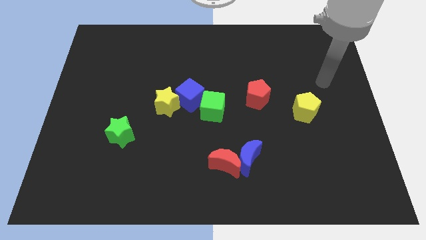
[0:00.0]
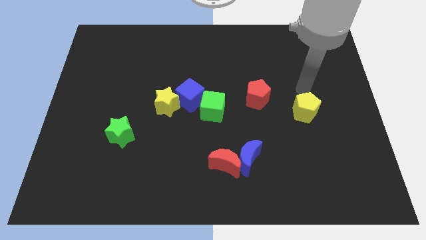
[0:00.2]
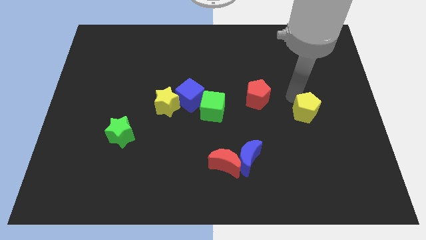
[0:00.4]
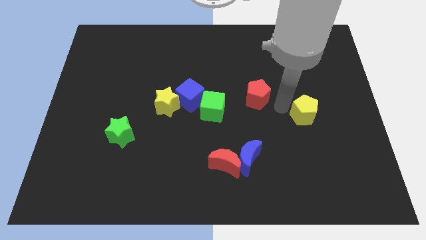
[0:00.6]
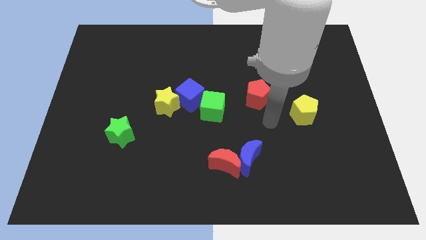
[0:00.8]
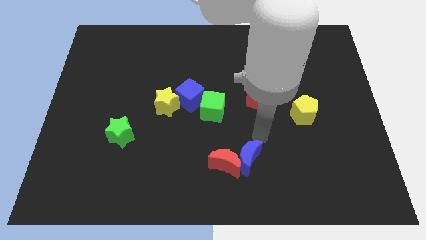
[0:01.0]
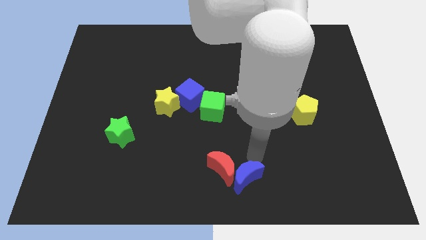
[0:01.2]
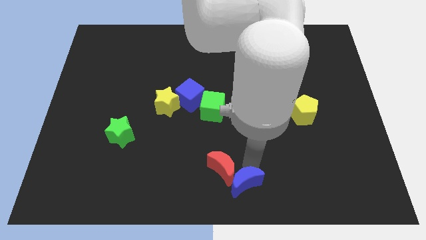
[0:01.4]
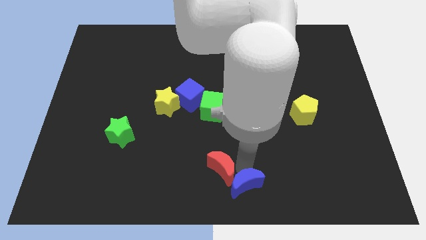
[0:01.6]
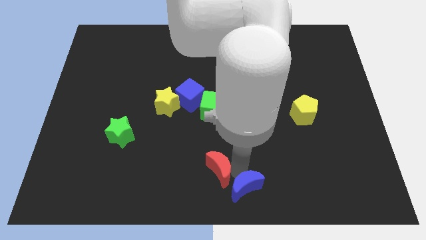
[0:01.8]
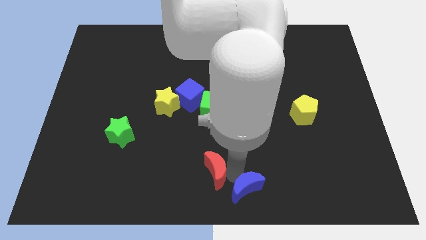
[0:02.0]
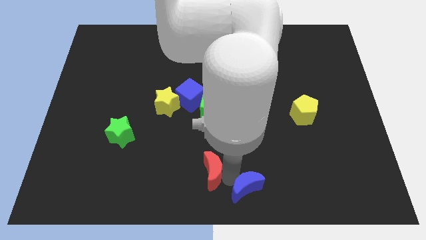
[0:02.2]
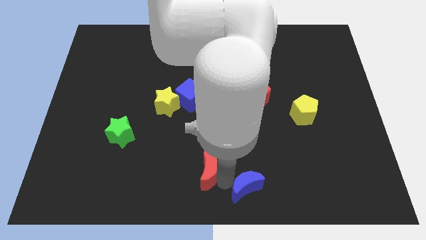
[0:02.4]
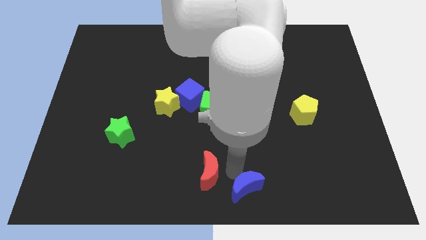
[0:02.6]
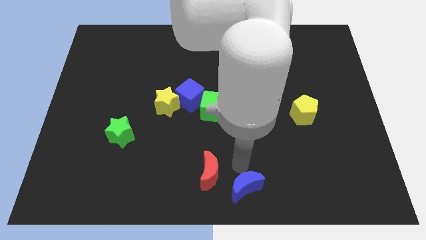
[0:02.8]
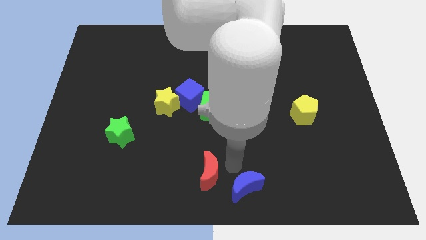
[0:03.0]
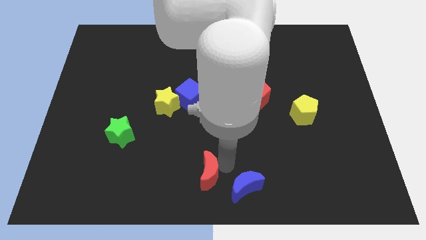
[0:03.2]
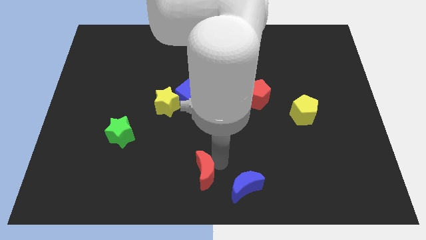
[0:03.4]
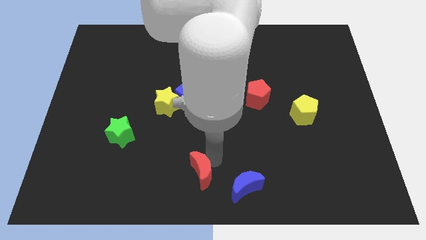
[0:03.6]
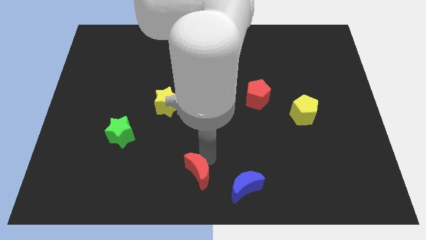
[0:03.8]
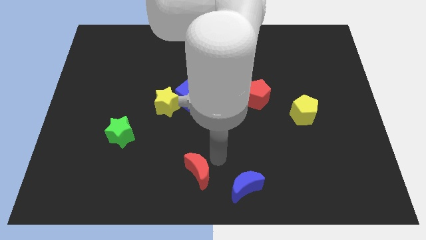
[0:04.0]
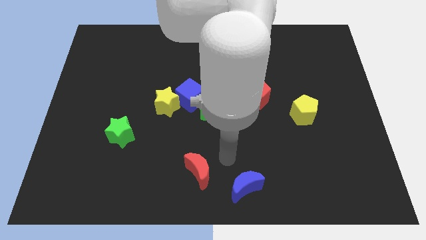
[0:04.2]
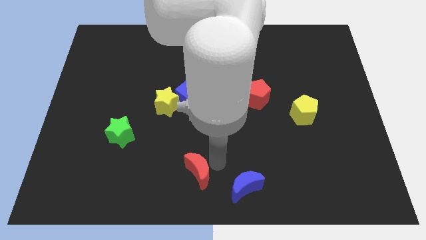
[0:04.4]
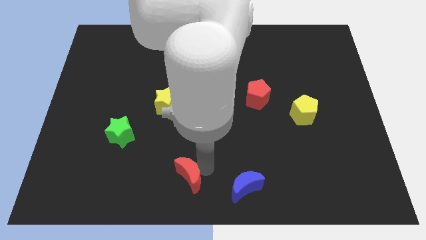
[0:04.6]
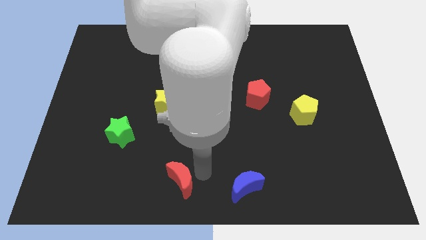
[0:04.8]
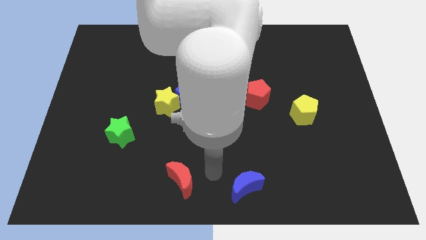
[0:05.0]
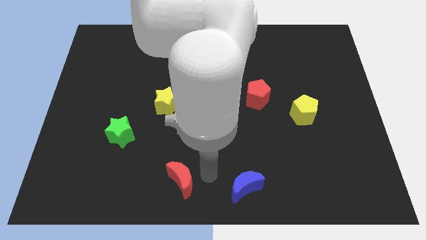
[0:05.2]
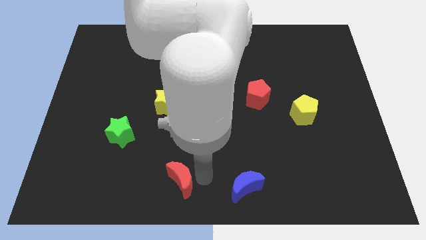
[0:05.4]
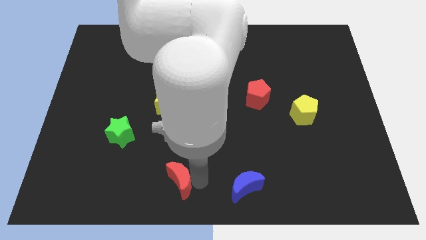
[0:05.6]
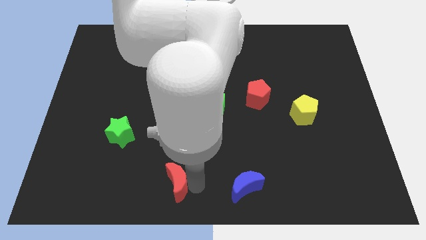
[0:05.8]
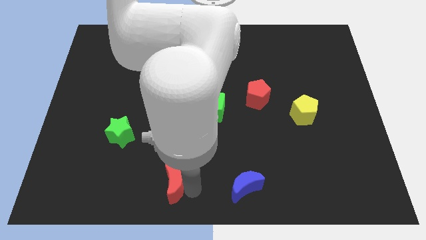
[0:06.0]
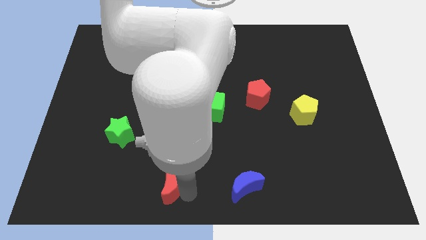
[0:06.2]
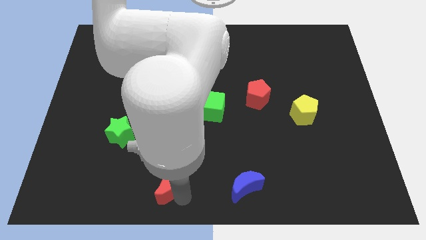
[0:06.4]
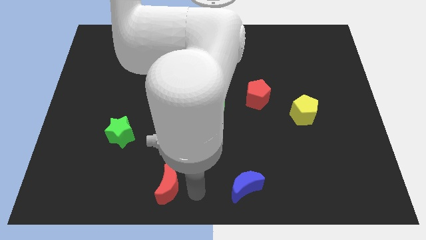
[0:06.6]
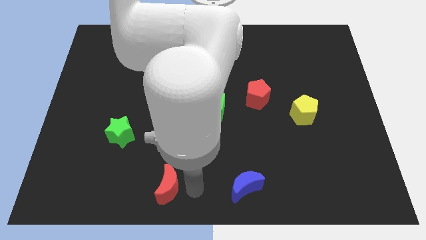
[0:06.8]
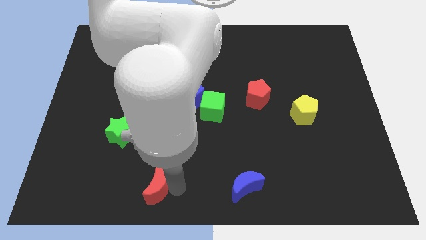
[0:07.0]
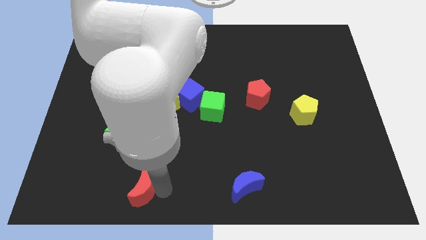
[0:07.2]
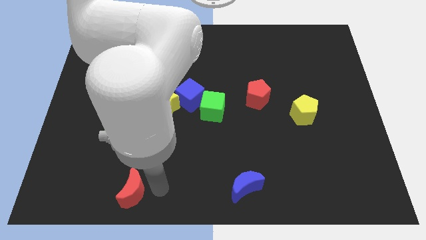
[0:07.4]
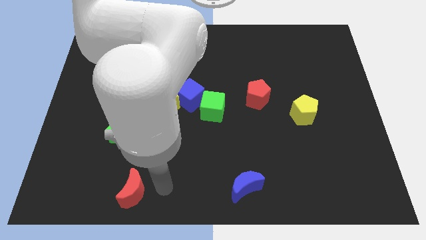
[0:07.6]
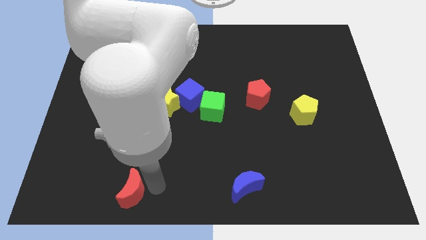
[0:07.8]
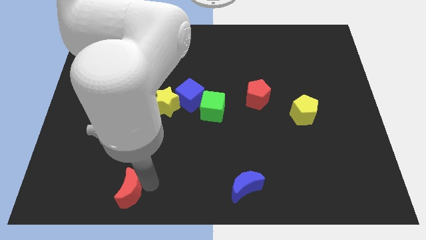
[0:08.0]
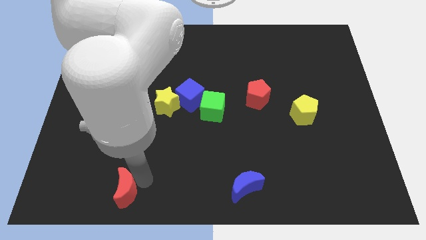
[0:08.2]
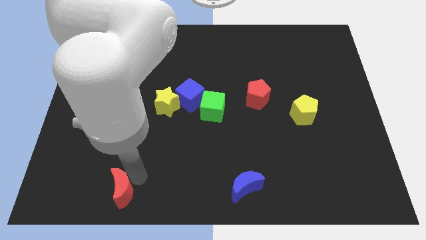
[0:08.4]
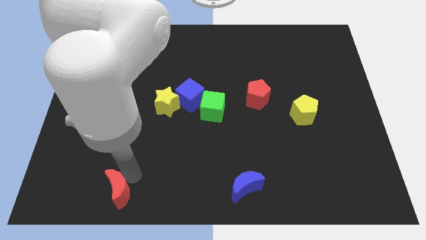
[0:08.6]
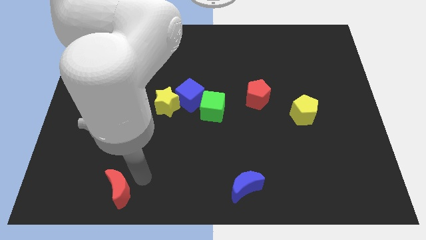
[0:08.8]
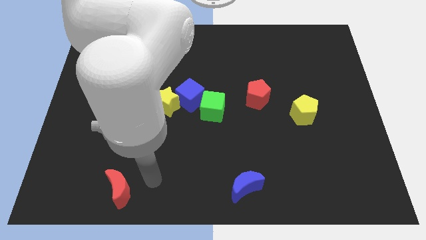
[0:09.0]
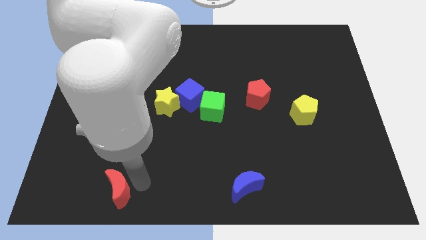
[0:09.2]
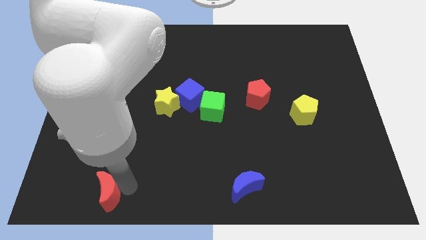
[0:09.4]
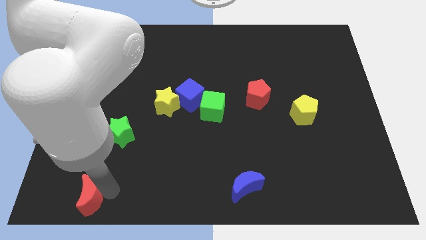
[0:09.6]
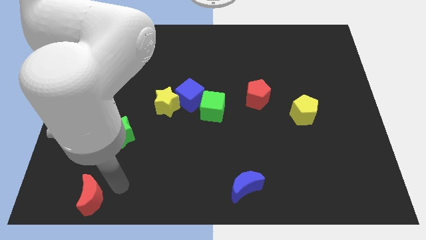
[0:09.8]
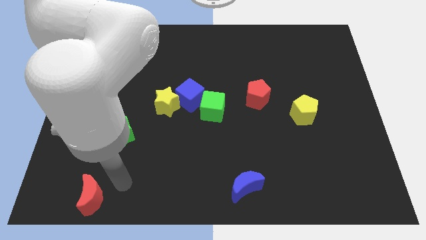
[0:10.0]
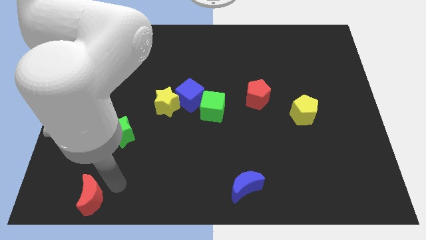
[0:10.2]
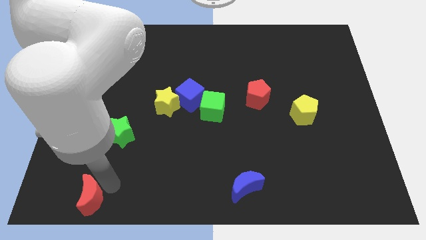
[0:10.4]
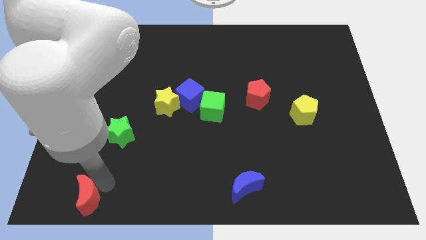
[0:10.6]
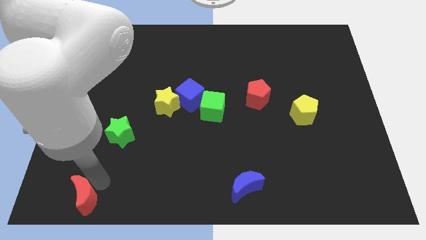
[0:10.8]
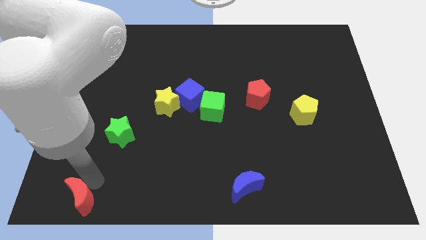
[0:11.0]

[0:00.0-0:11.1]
put the red moon to the lower left corner

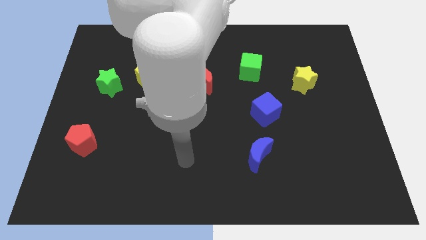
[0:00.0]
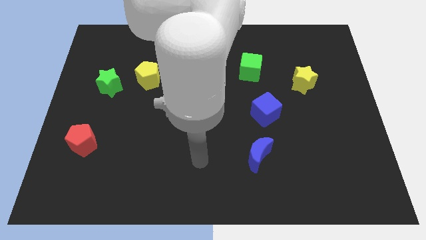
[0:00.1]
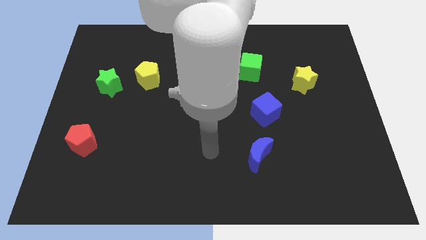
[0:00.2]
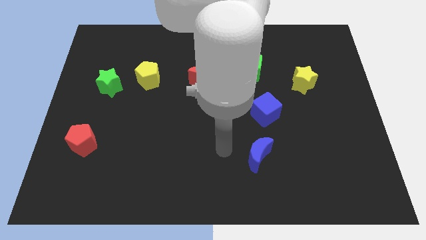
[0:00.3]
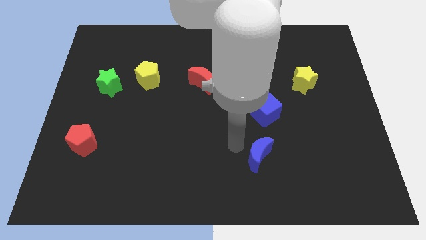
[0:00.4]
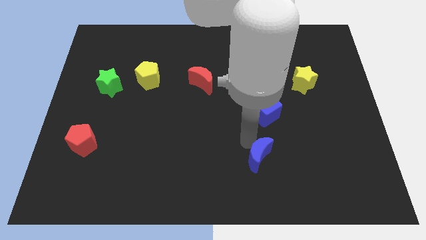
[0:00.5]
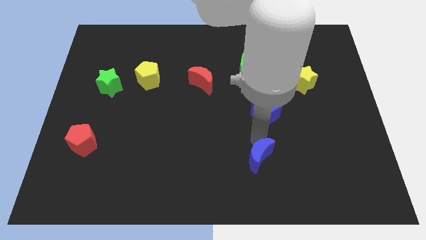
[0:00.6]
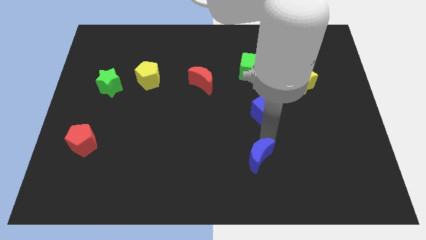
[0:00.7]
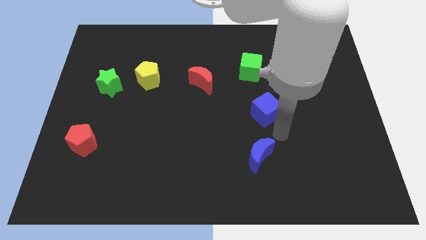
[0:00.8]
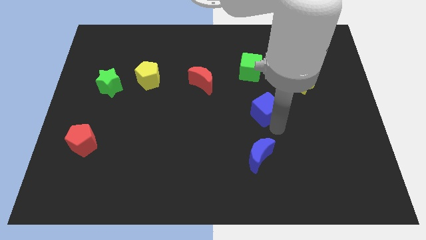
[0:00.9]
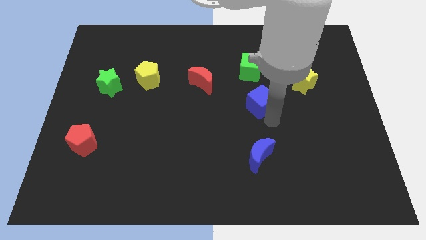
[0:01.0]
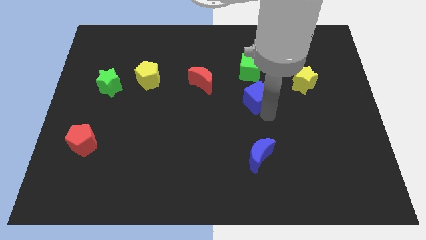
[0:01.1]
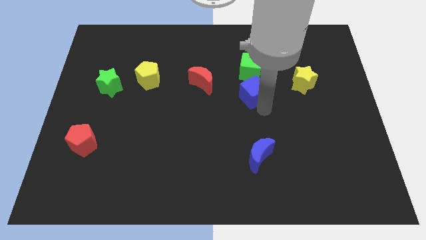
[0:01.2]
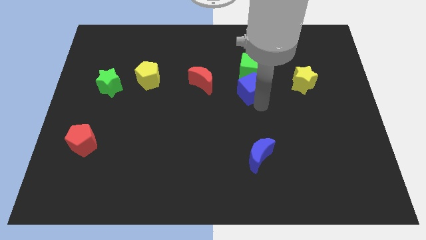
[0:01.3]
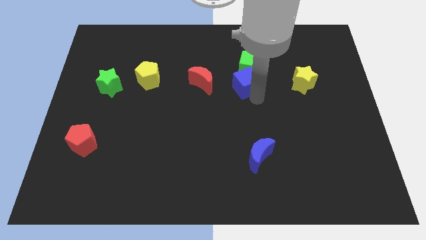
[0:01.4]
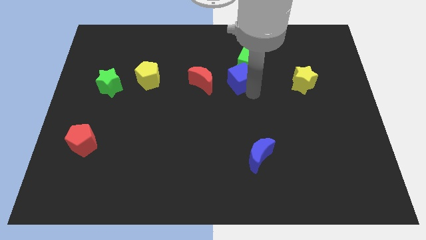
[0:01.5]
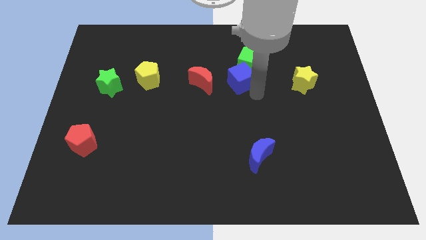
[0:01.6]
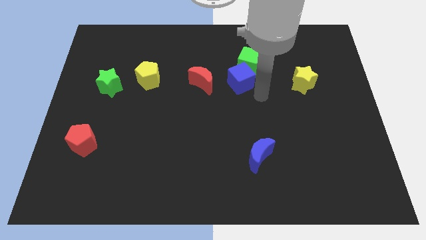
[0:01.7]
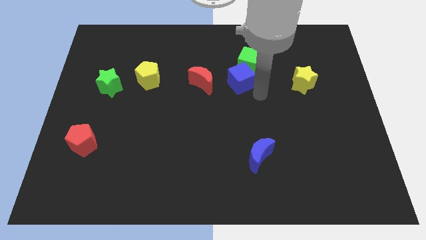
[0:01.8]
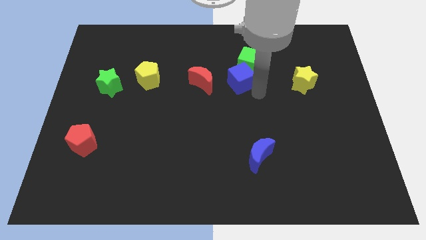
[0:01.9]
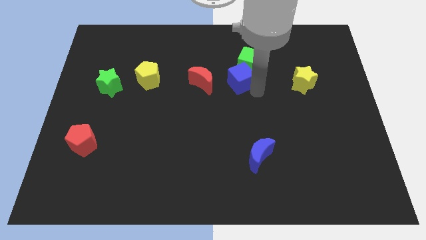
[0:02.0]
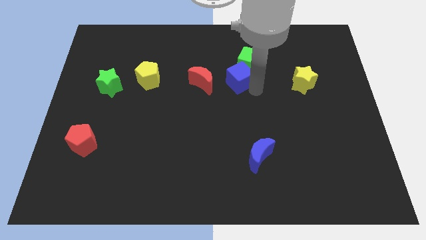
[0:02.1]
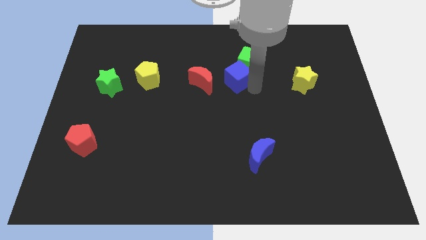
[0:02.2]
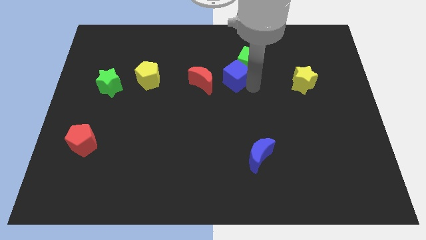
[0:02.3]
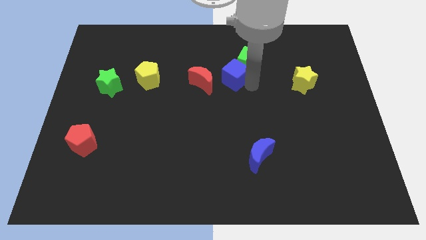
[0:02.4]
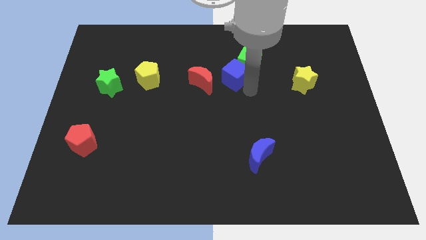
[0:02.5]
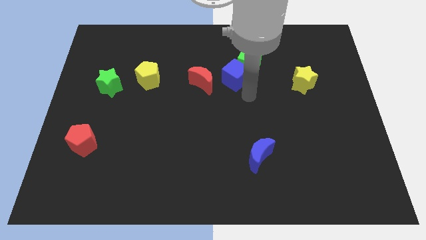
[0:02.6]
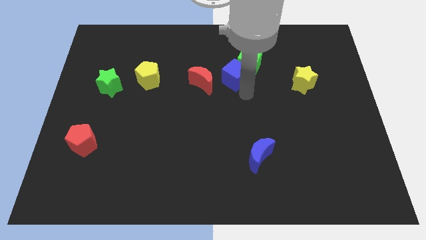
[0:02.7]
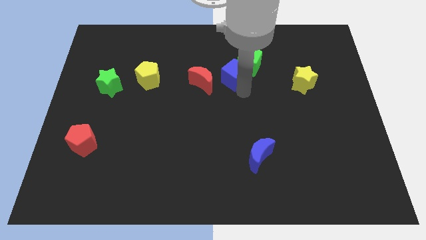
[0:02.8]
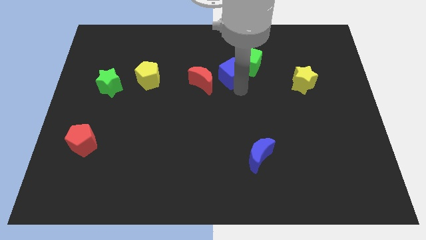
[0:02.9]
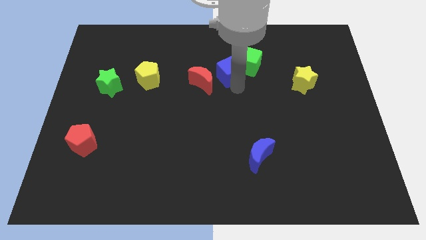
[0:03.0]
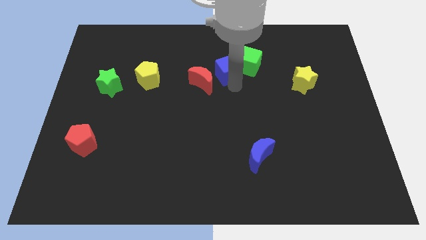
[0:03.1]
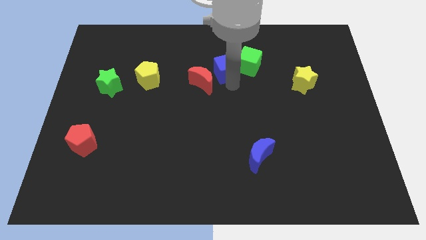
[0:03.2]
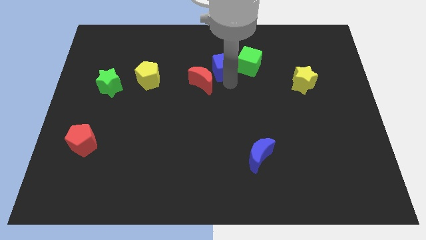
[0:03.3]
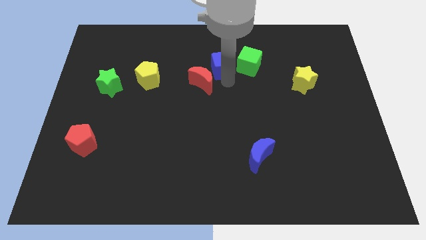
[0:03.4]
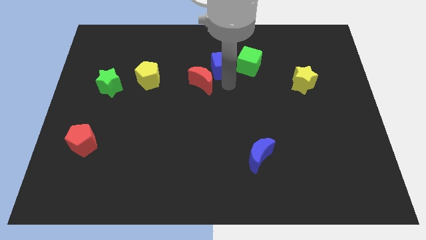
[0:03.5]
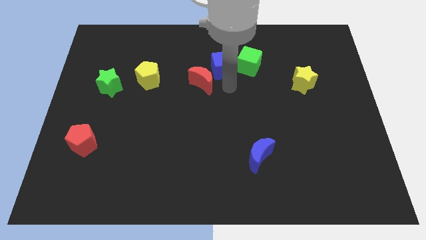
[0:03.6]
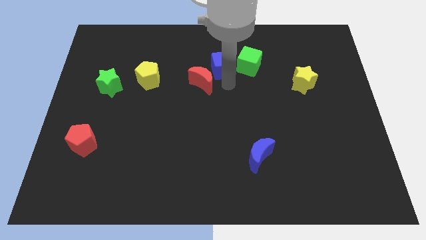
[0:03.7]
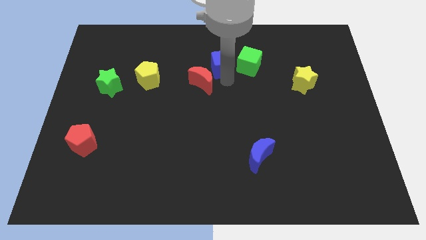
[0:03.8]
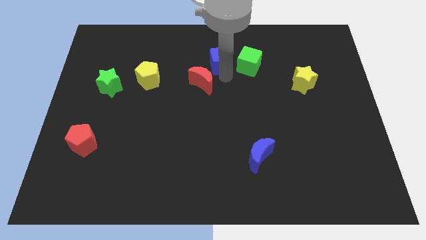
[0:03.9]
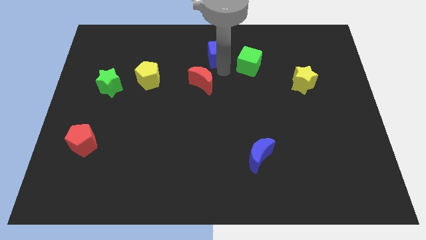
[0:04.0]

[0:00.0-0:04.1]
push the blue cube to the towards your base
